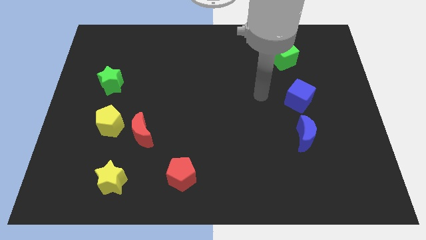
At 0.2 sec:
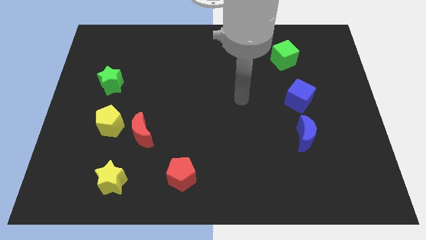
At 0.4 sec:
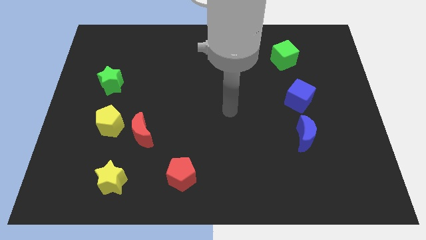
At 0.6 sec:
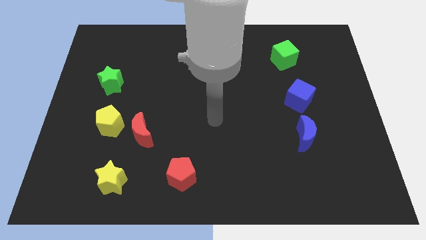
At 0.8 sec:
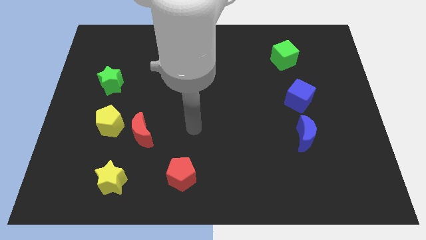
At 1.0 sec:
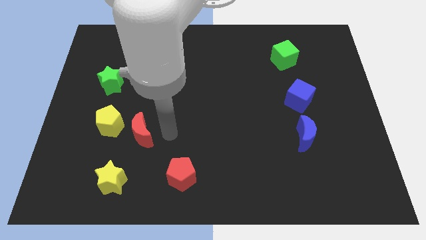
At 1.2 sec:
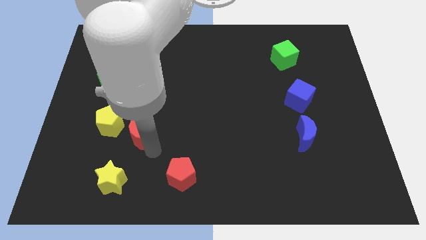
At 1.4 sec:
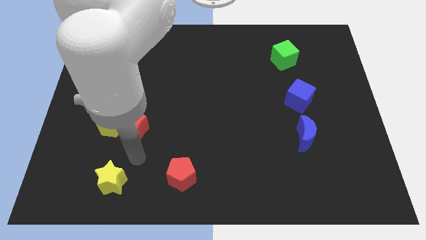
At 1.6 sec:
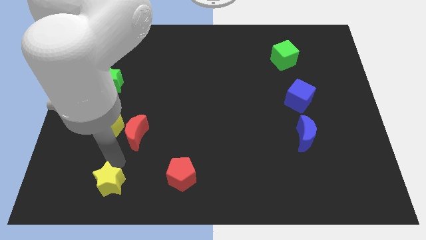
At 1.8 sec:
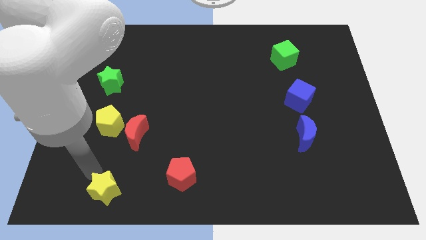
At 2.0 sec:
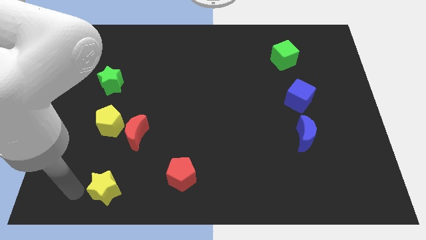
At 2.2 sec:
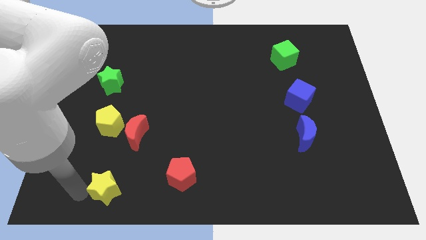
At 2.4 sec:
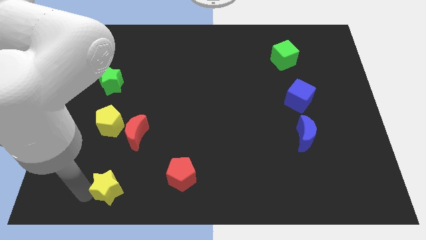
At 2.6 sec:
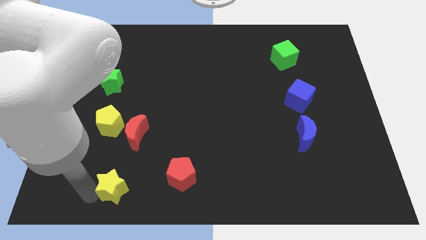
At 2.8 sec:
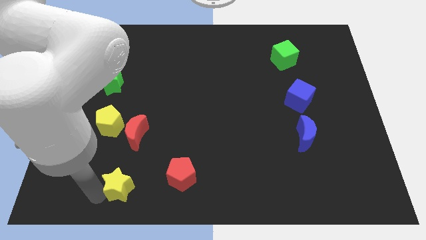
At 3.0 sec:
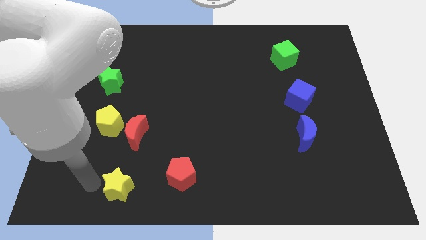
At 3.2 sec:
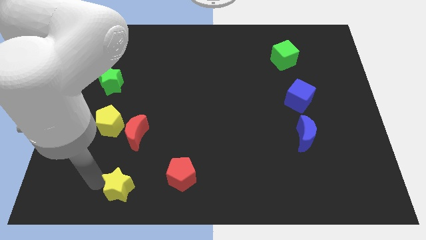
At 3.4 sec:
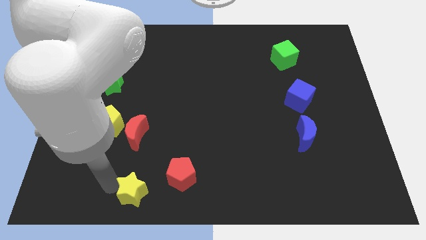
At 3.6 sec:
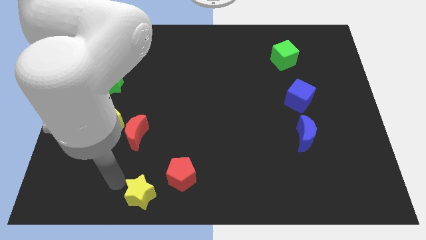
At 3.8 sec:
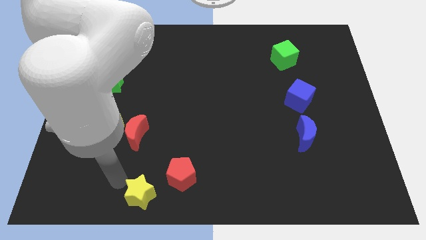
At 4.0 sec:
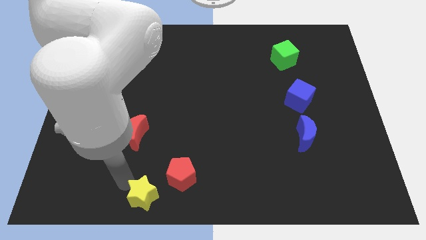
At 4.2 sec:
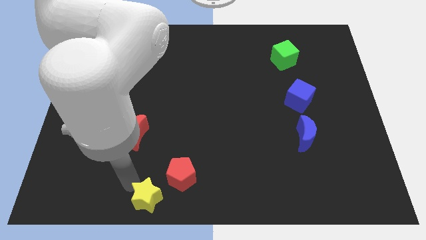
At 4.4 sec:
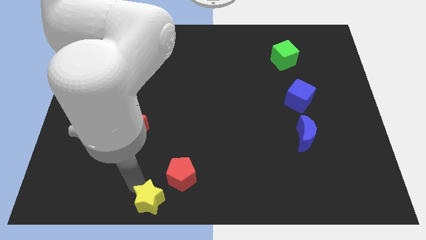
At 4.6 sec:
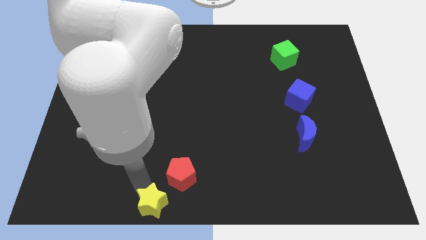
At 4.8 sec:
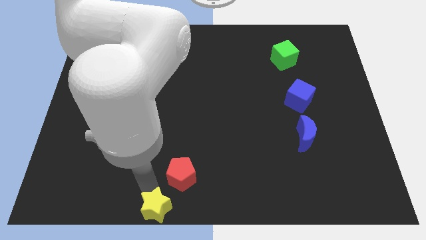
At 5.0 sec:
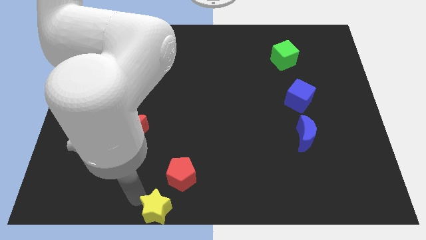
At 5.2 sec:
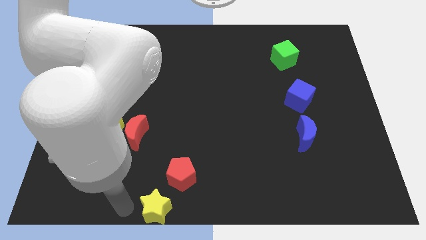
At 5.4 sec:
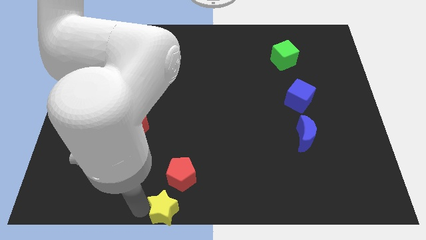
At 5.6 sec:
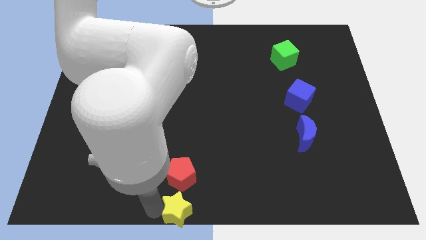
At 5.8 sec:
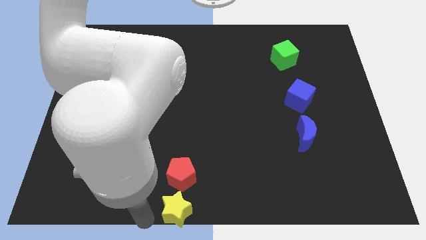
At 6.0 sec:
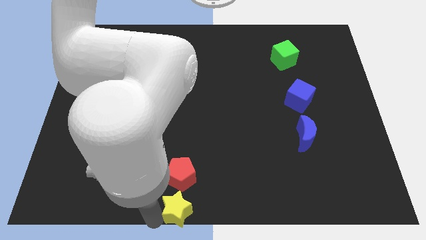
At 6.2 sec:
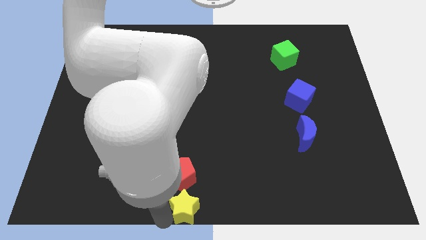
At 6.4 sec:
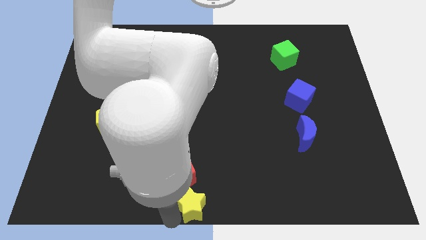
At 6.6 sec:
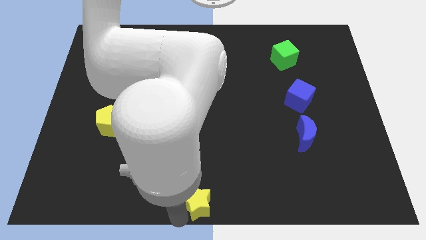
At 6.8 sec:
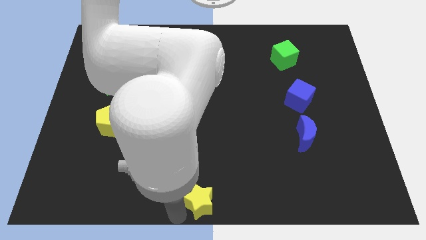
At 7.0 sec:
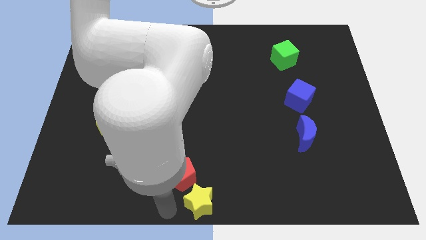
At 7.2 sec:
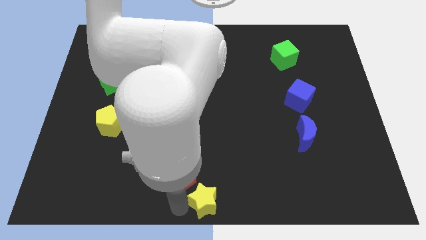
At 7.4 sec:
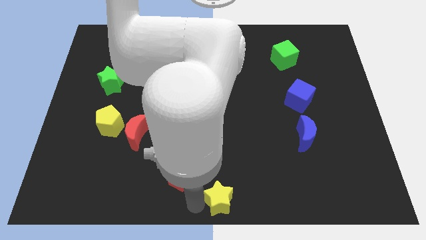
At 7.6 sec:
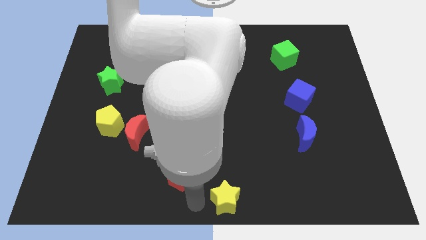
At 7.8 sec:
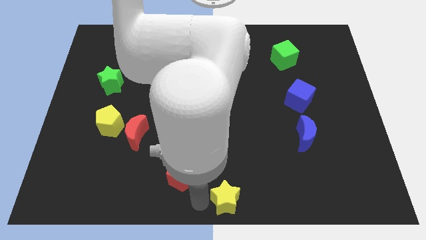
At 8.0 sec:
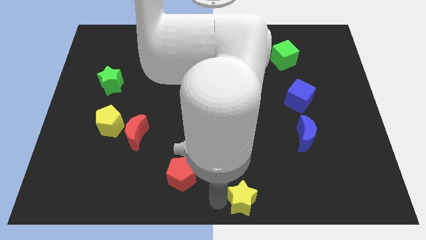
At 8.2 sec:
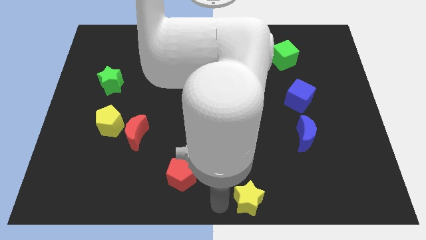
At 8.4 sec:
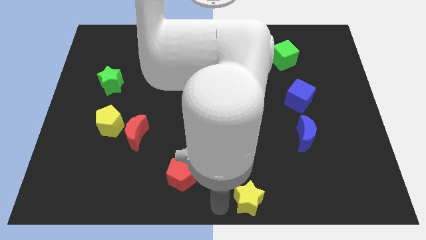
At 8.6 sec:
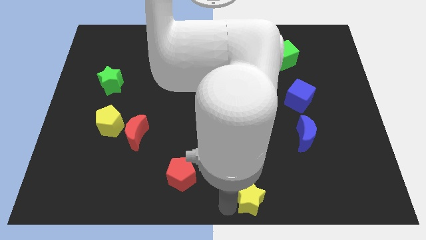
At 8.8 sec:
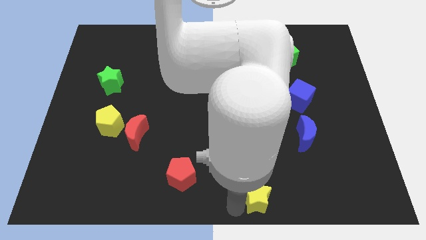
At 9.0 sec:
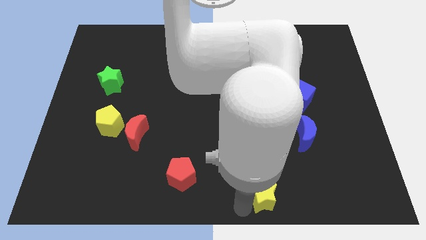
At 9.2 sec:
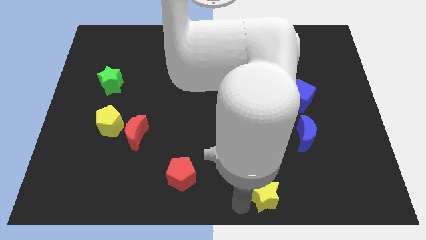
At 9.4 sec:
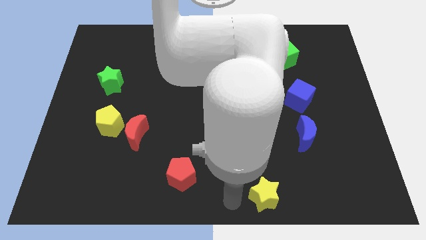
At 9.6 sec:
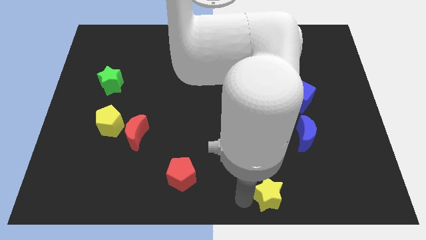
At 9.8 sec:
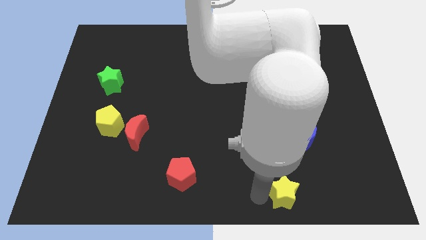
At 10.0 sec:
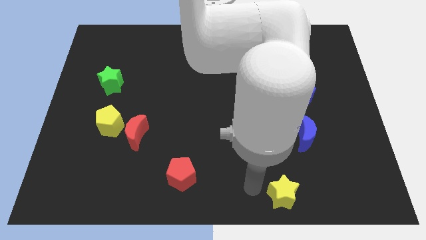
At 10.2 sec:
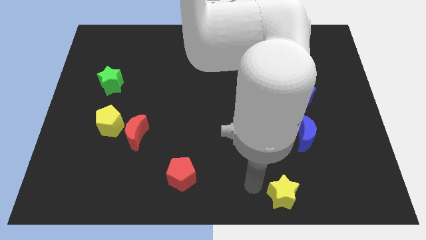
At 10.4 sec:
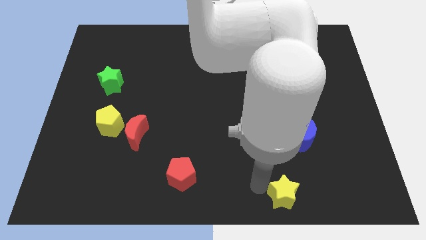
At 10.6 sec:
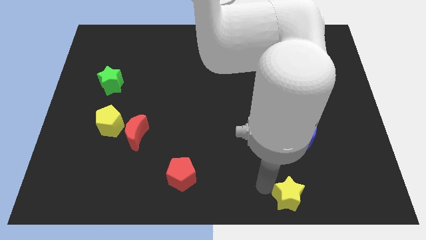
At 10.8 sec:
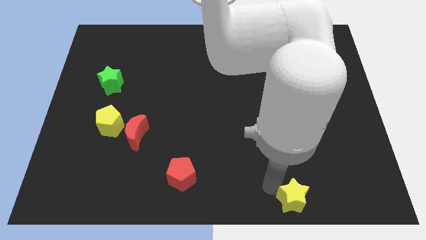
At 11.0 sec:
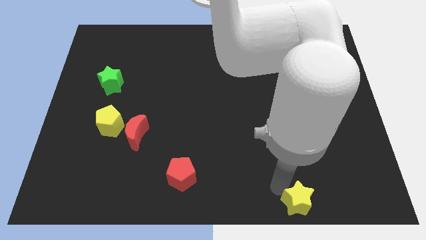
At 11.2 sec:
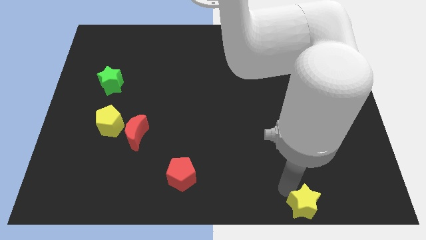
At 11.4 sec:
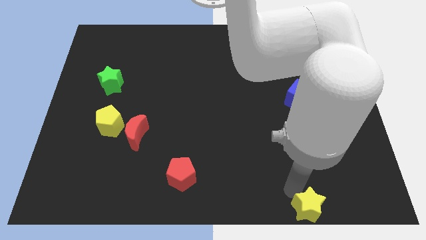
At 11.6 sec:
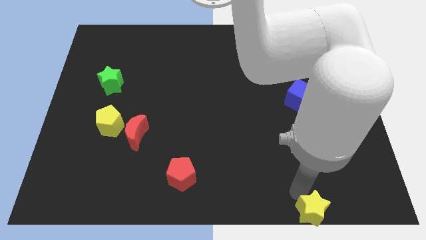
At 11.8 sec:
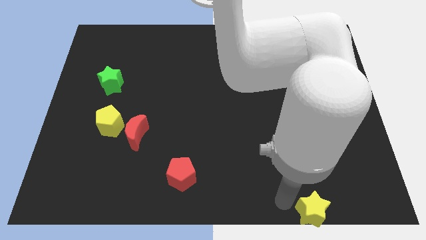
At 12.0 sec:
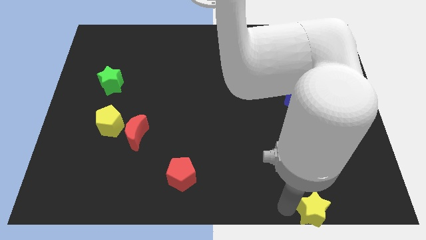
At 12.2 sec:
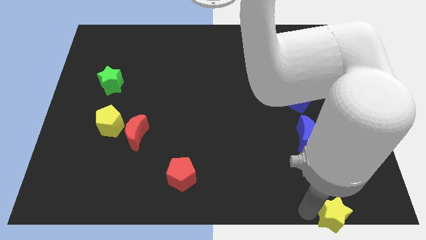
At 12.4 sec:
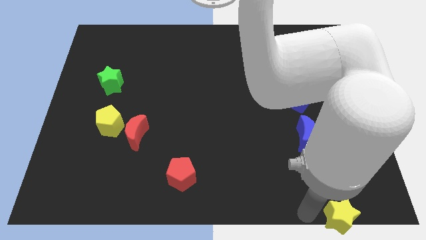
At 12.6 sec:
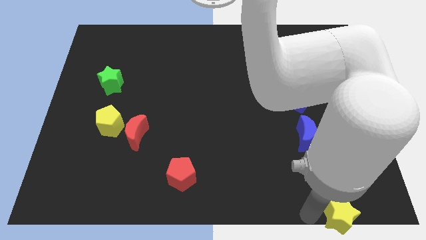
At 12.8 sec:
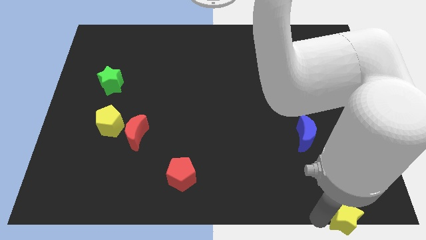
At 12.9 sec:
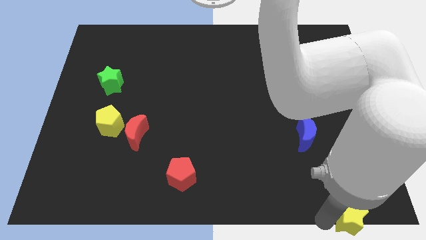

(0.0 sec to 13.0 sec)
slide the yellow star to the bottom right corner
